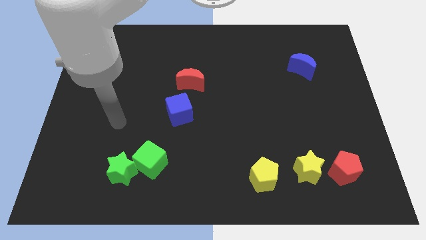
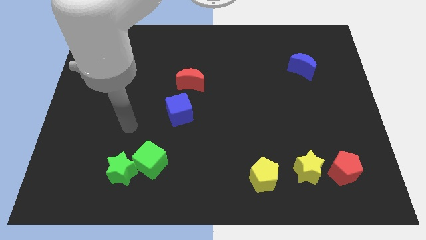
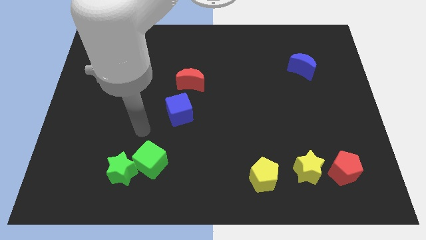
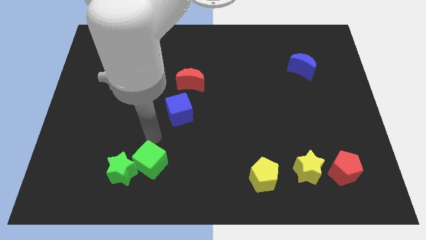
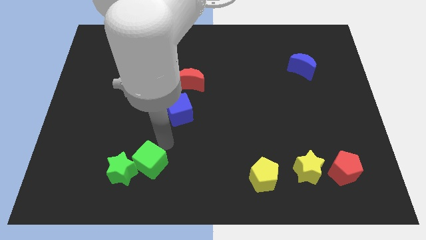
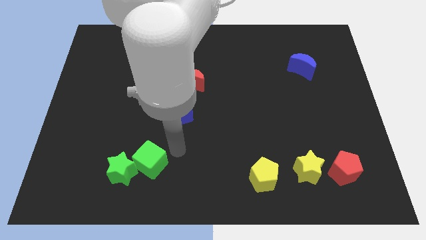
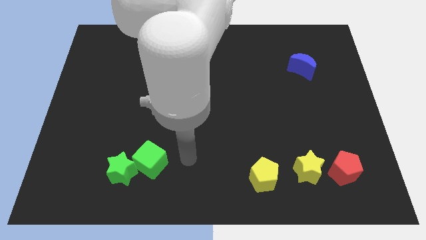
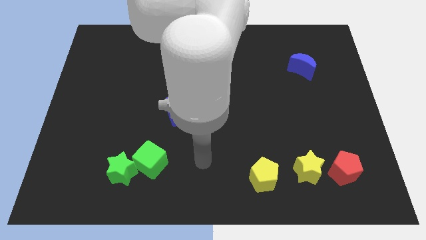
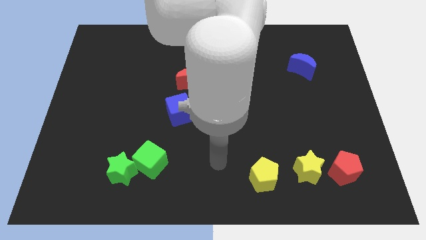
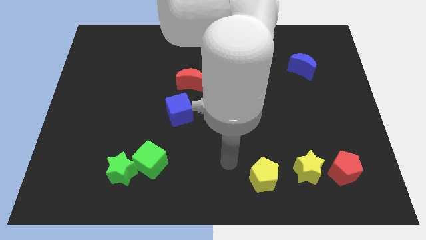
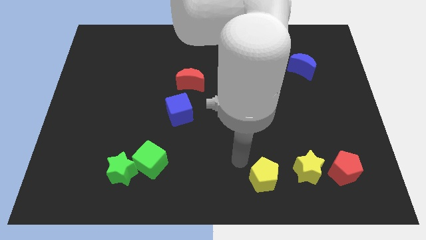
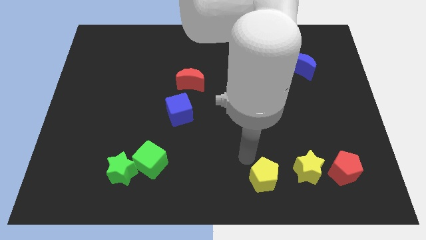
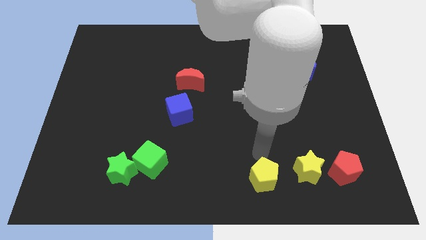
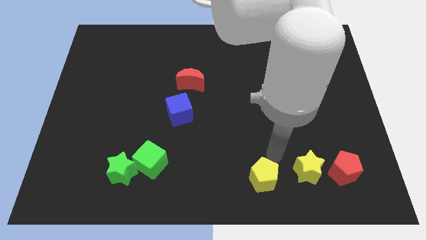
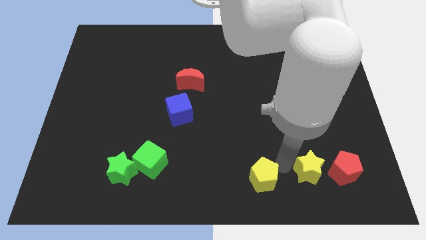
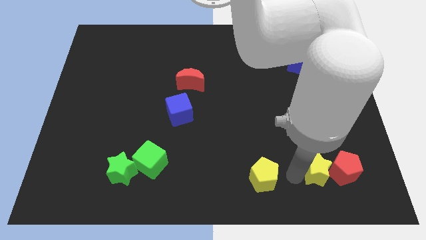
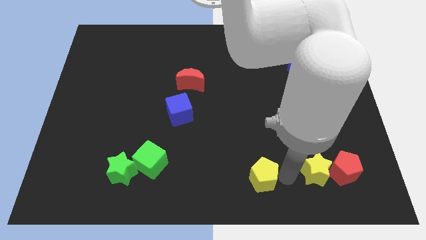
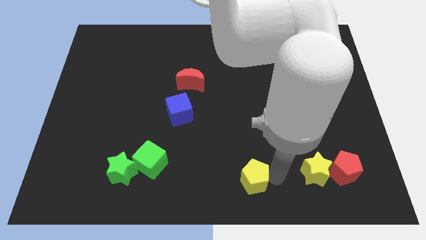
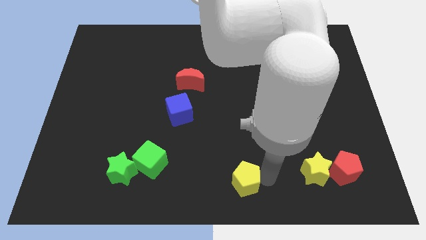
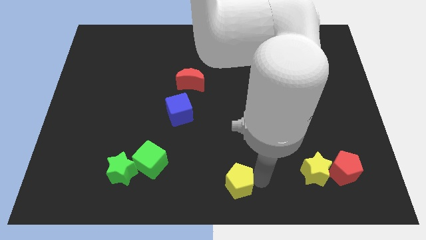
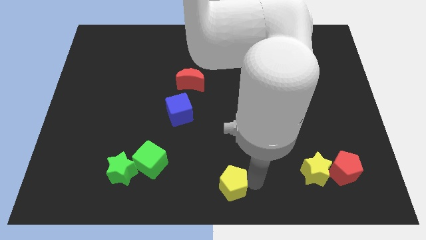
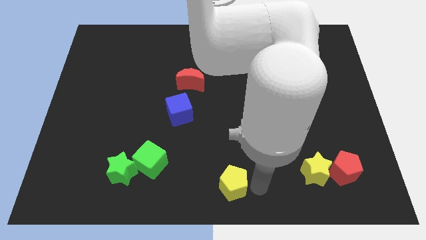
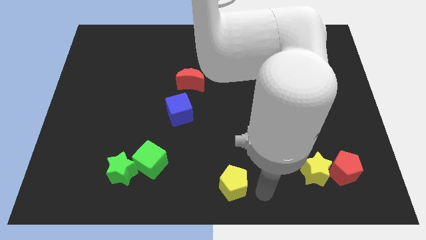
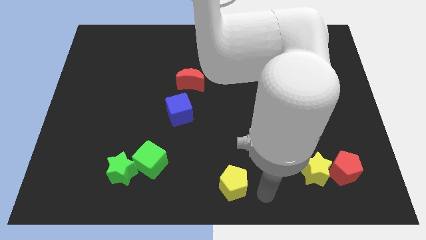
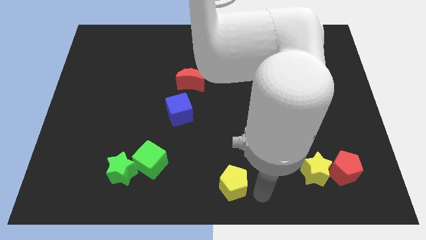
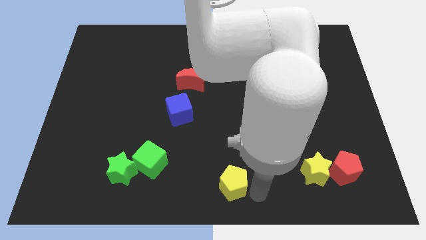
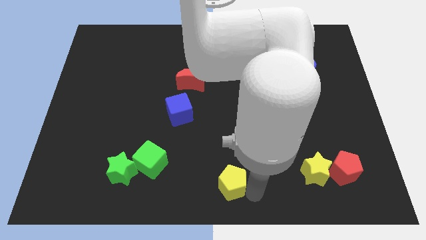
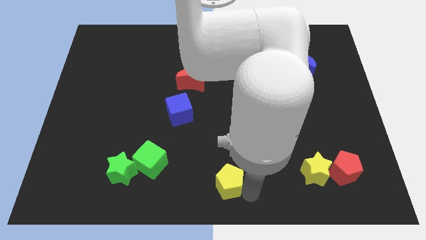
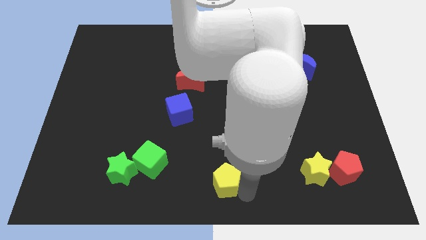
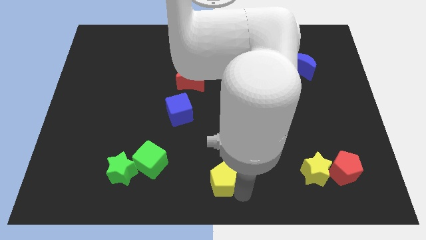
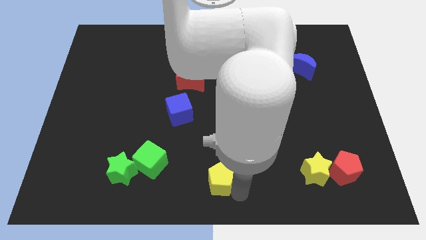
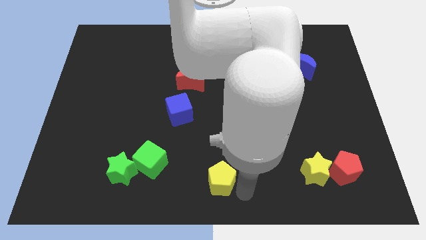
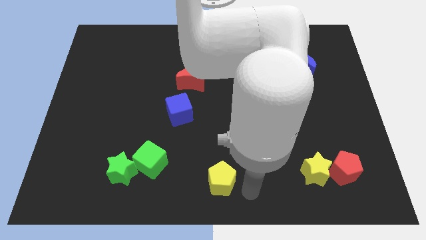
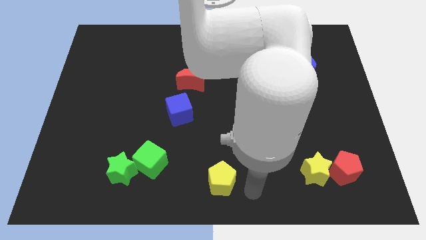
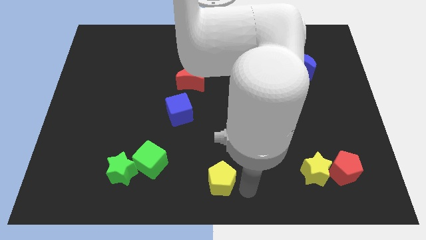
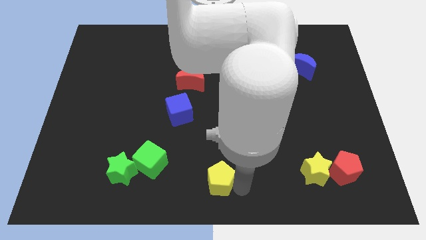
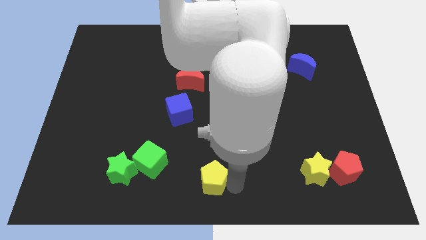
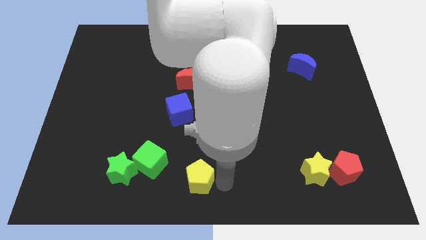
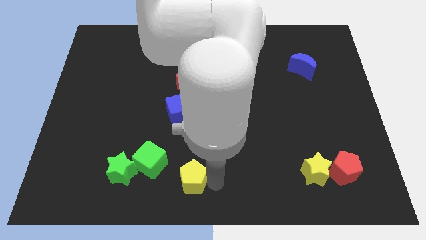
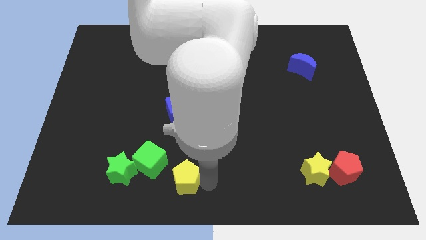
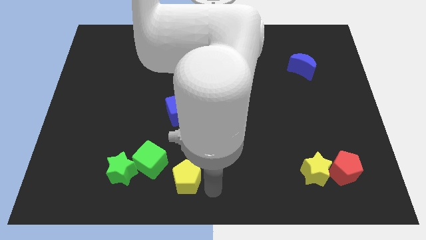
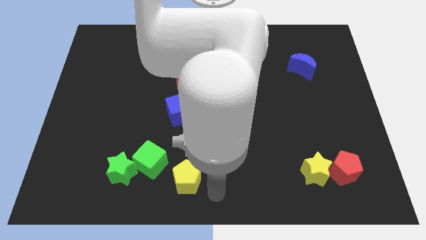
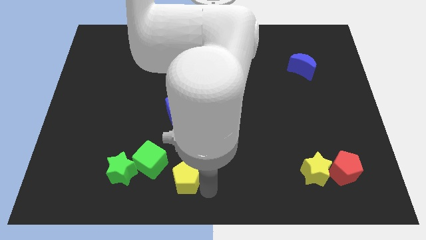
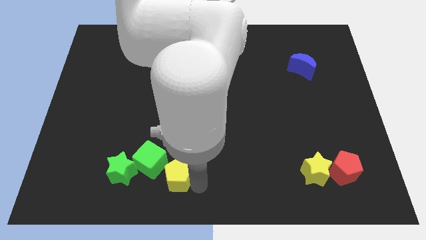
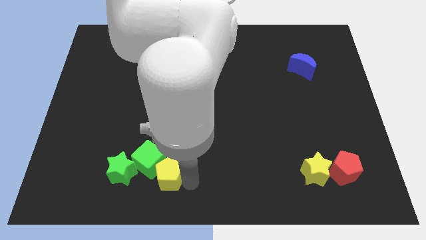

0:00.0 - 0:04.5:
push the yellow pentagon to the green cube

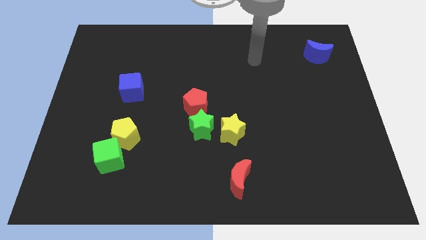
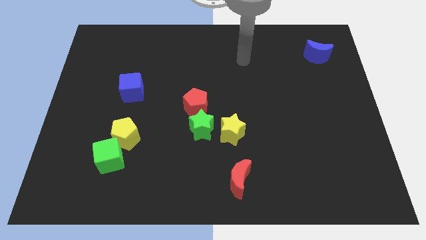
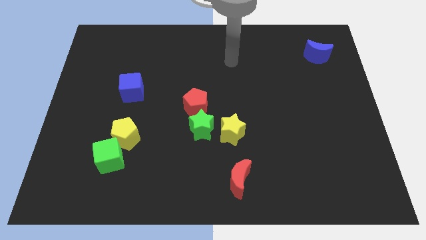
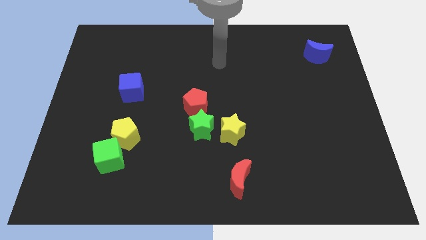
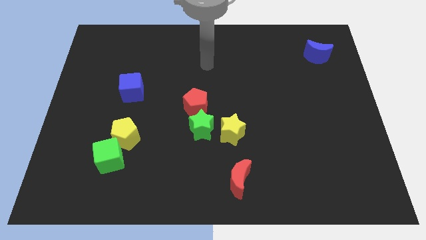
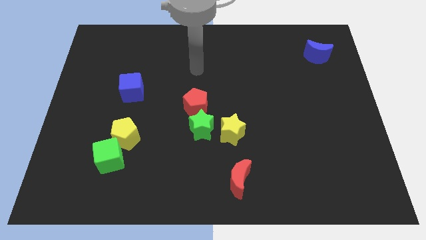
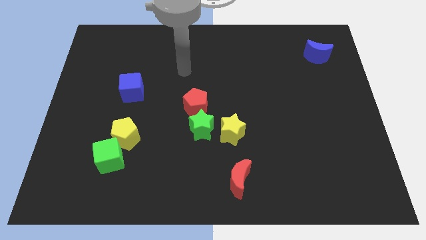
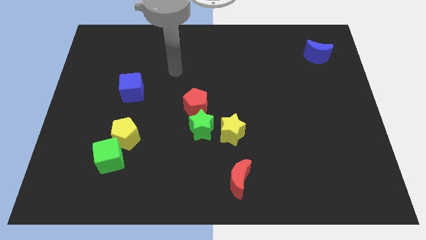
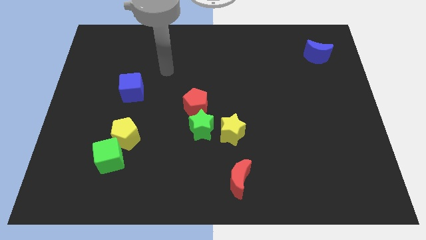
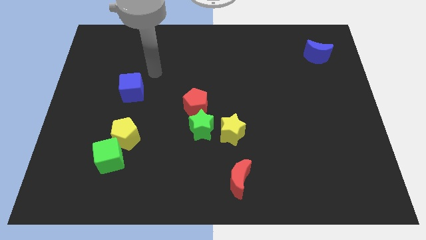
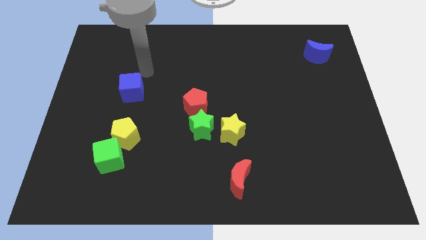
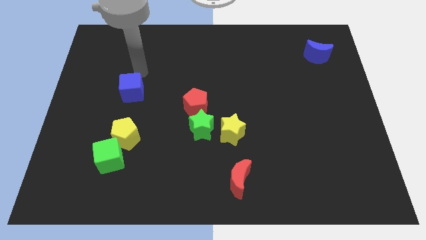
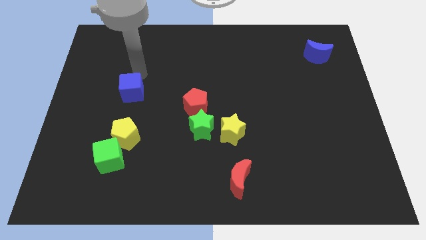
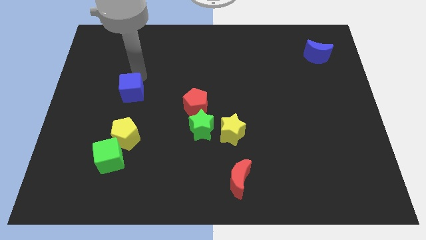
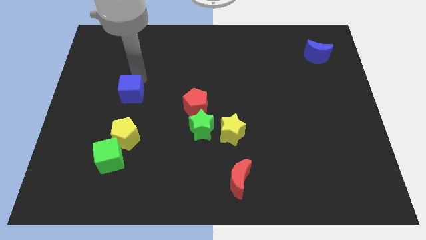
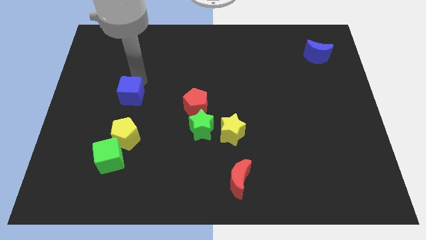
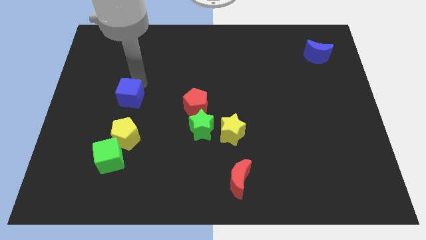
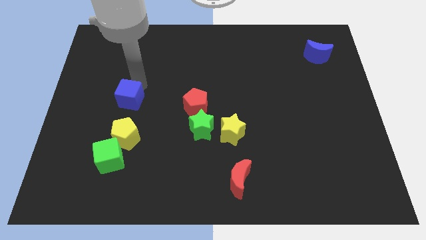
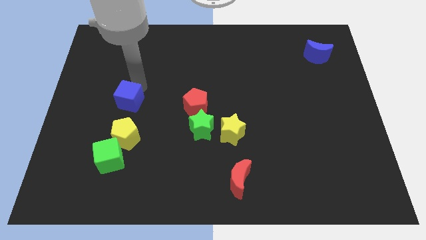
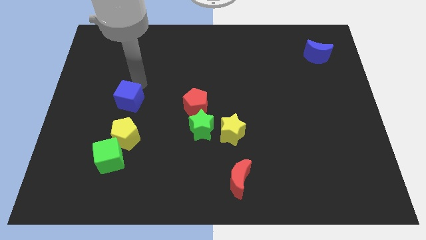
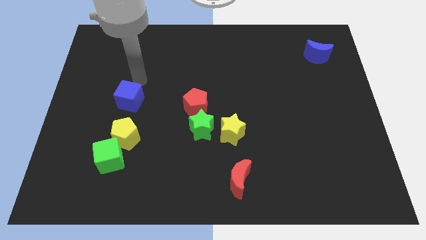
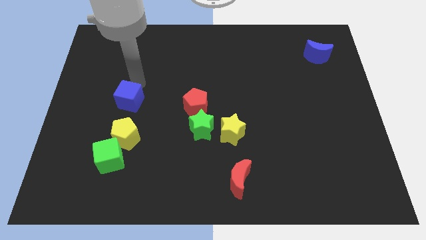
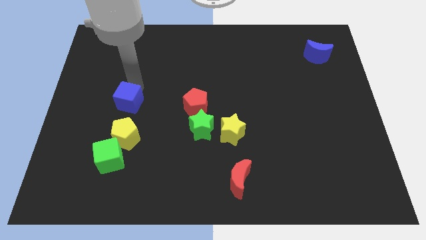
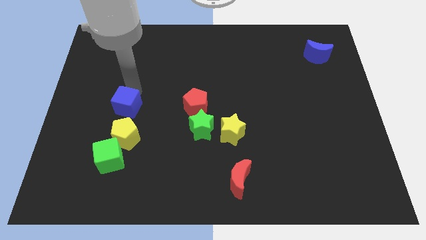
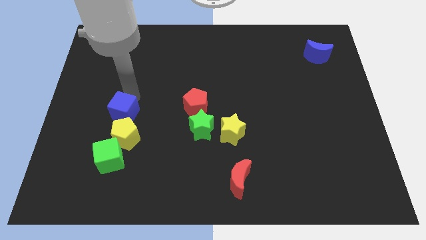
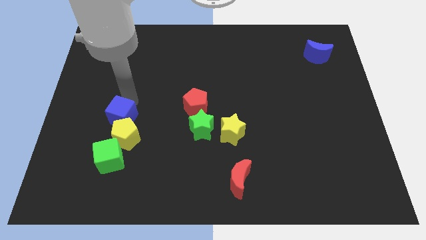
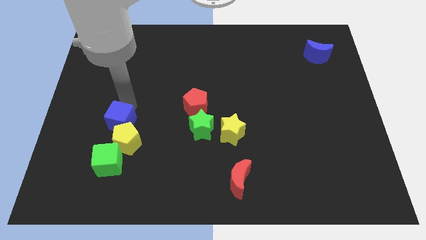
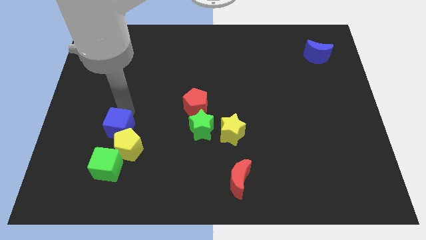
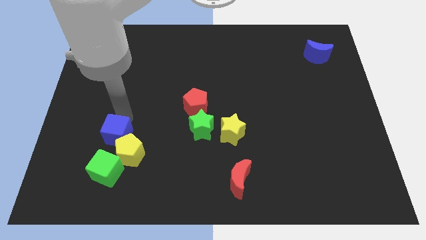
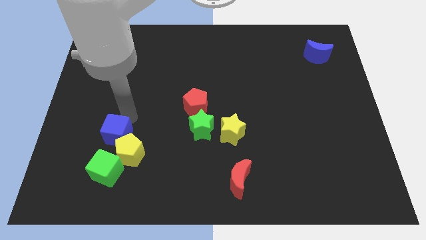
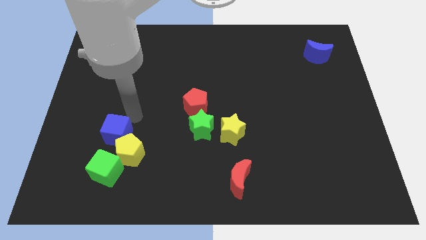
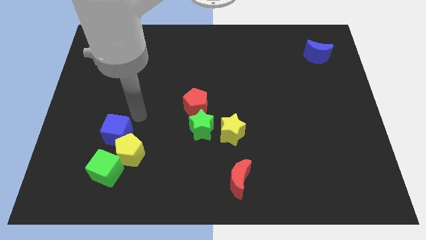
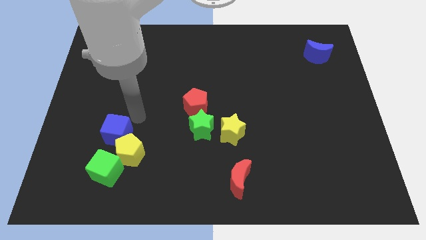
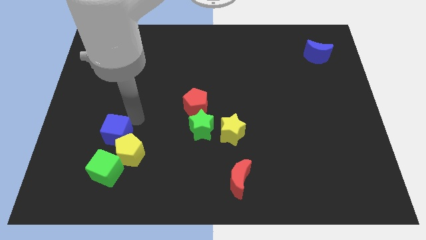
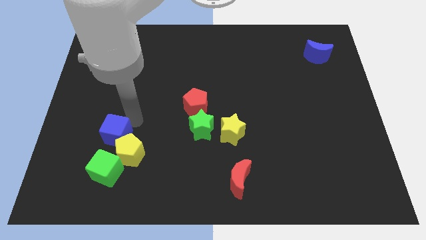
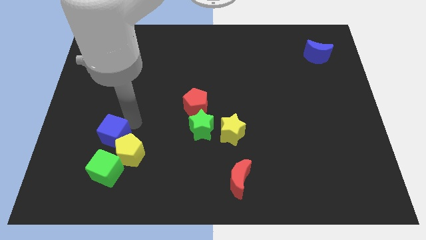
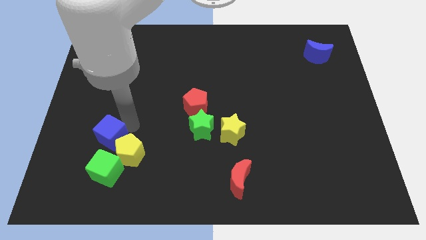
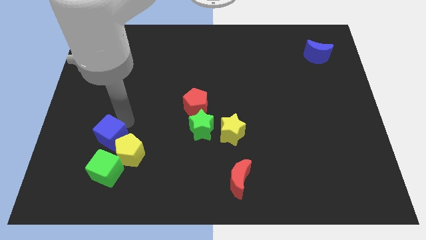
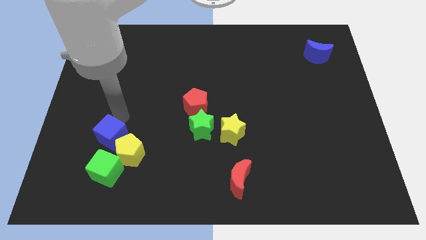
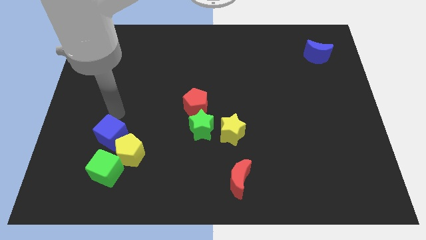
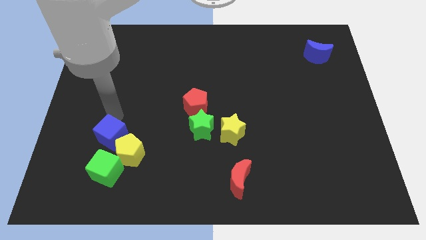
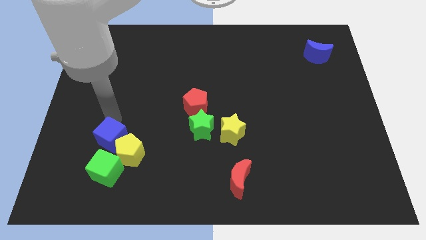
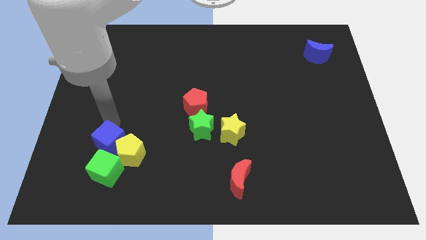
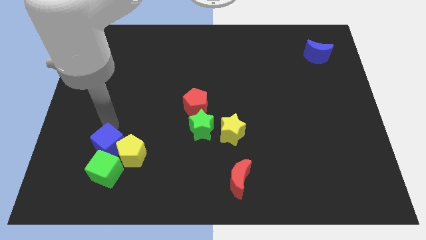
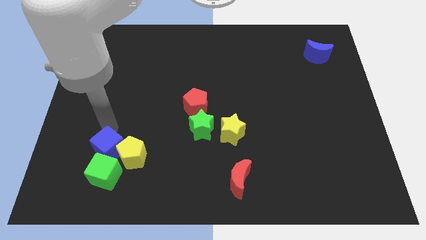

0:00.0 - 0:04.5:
push the blue cube towards the green cube
